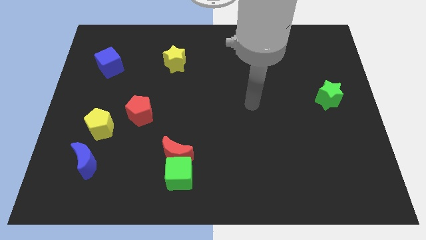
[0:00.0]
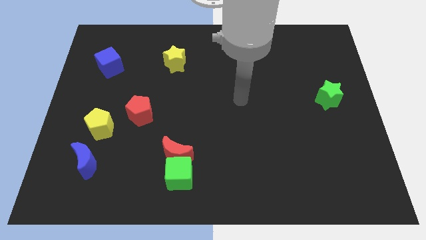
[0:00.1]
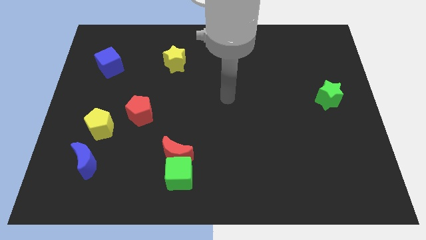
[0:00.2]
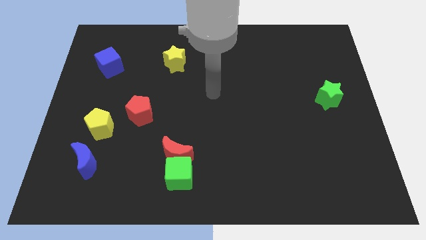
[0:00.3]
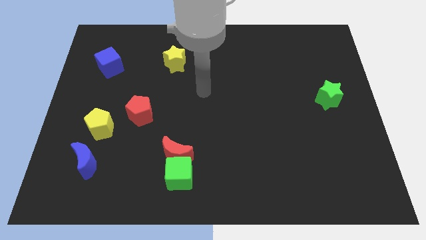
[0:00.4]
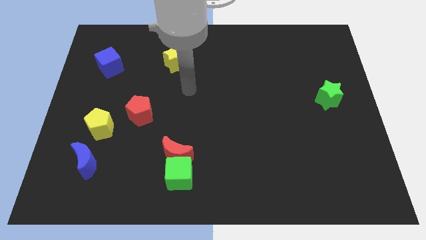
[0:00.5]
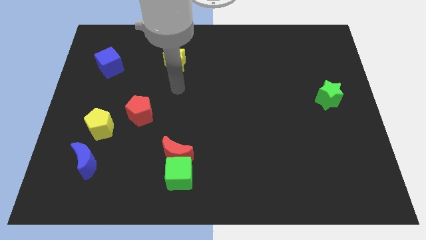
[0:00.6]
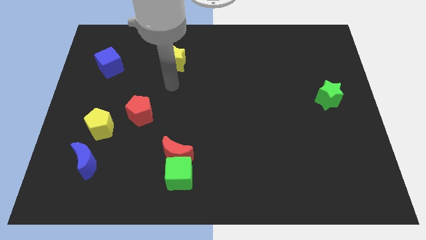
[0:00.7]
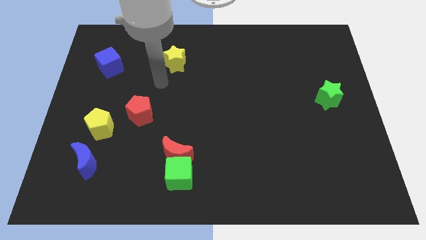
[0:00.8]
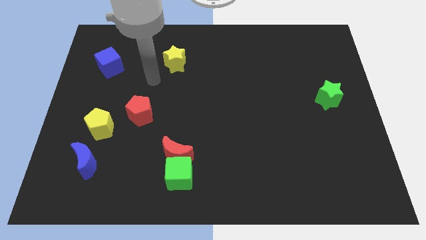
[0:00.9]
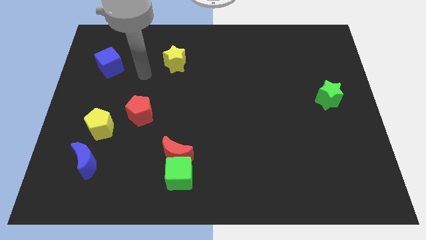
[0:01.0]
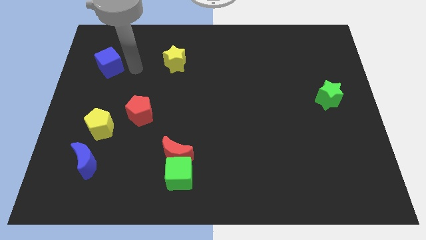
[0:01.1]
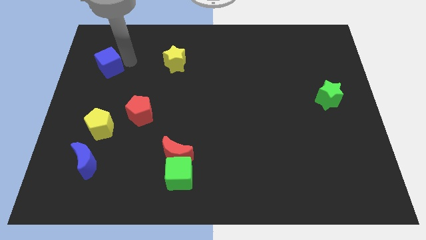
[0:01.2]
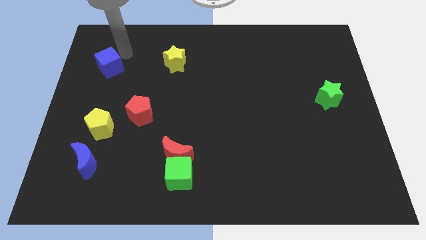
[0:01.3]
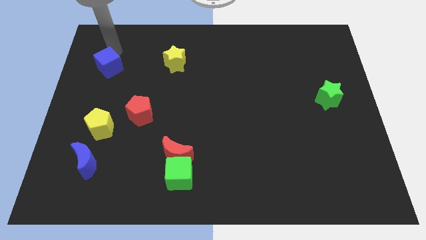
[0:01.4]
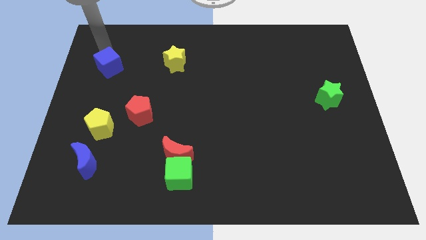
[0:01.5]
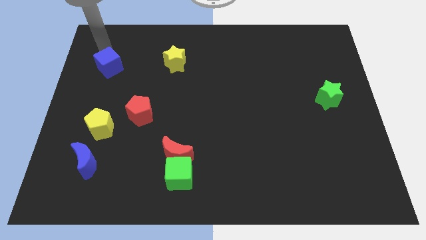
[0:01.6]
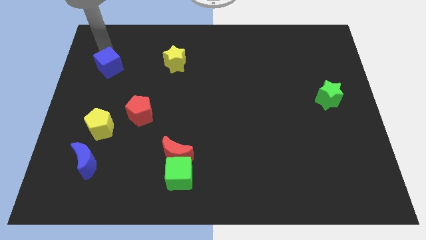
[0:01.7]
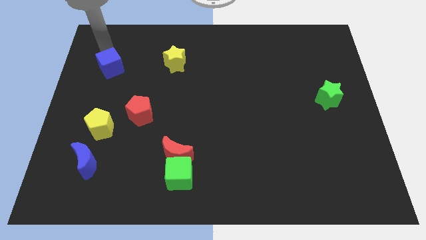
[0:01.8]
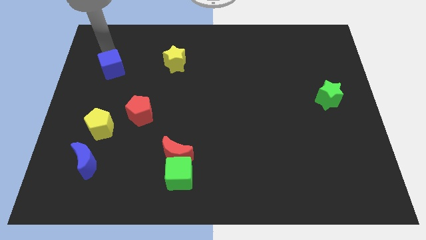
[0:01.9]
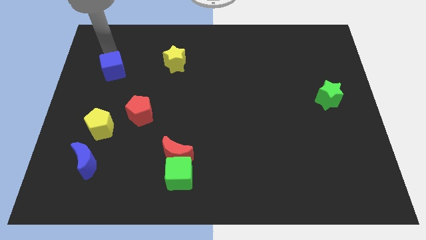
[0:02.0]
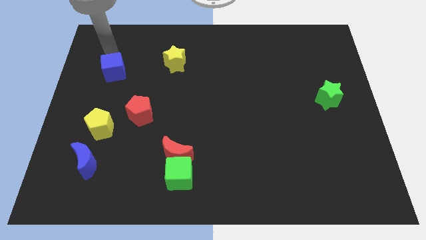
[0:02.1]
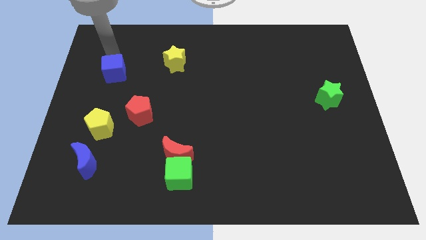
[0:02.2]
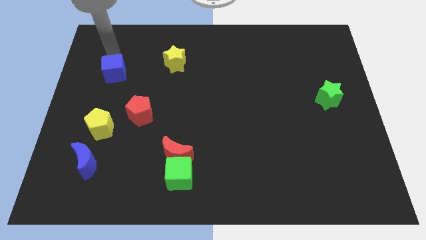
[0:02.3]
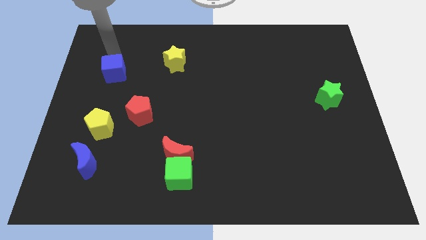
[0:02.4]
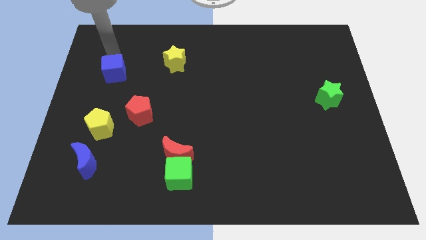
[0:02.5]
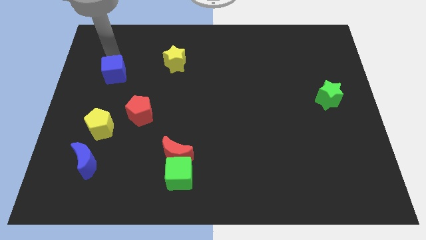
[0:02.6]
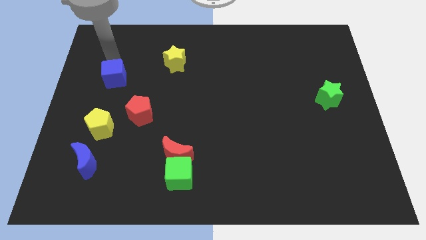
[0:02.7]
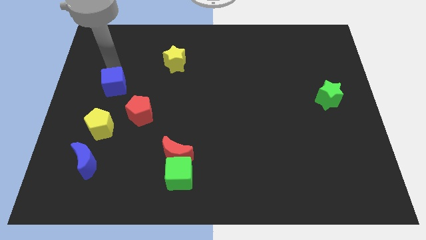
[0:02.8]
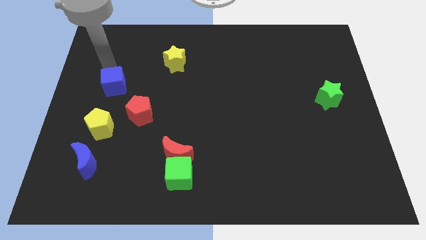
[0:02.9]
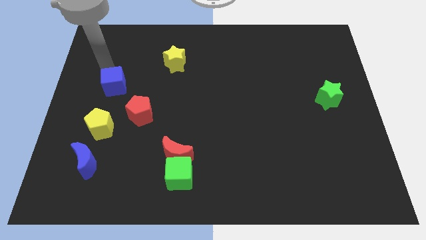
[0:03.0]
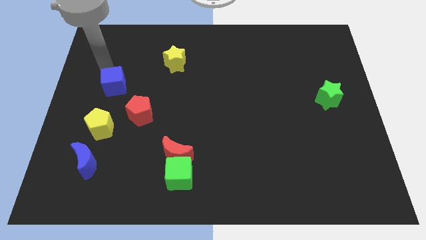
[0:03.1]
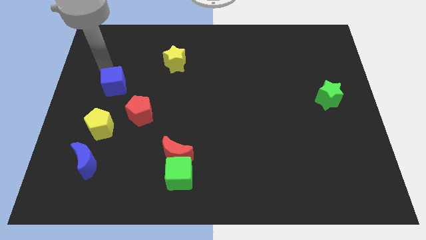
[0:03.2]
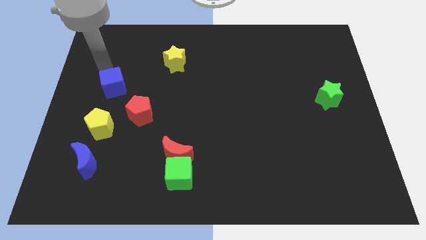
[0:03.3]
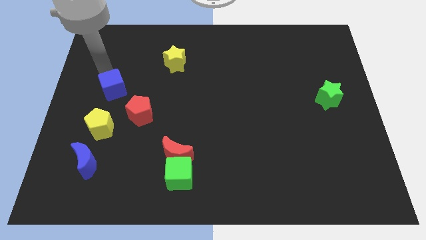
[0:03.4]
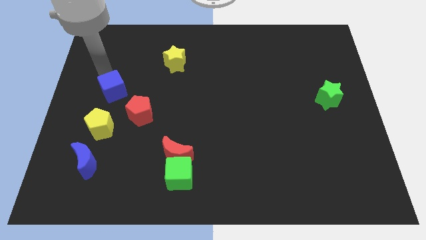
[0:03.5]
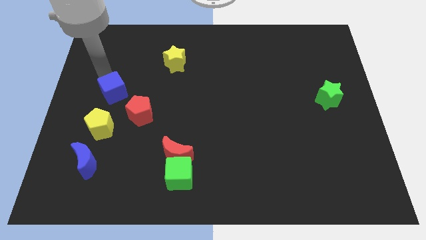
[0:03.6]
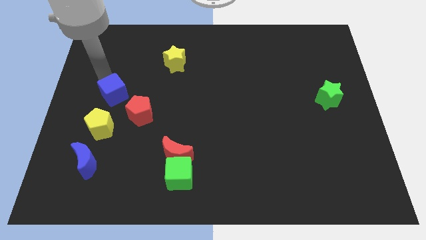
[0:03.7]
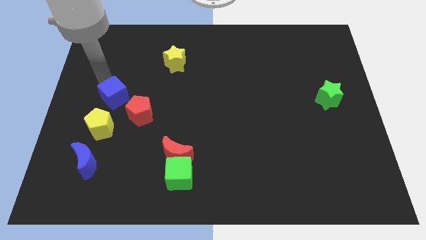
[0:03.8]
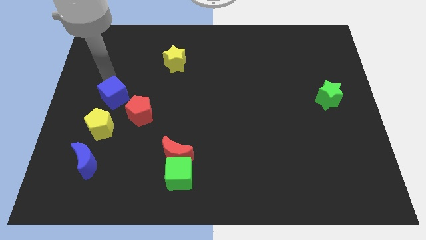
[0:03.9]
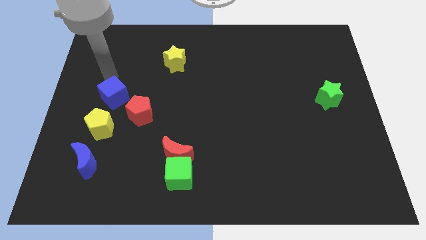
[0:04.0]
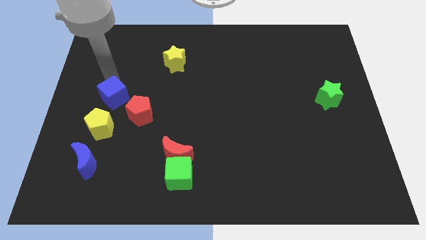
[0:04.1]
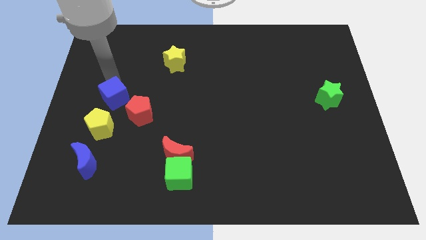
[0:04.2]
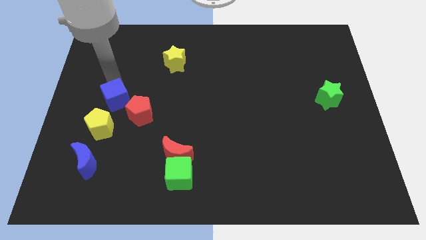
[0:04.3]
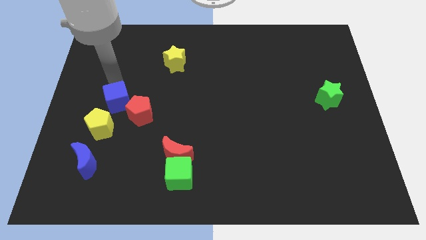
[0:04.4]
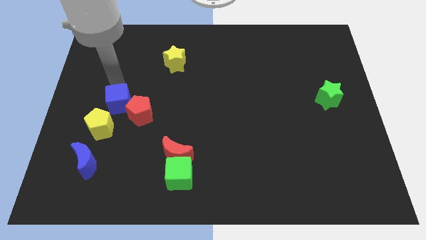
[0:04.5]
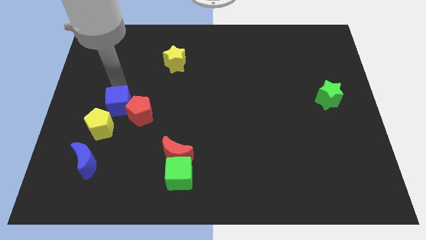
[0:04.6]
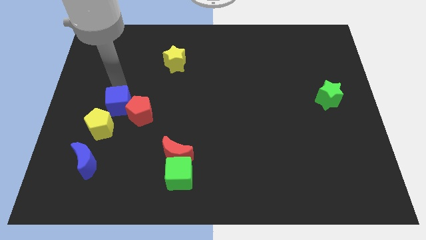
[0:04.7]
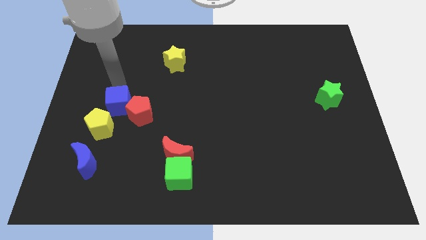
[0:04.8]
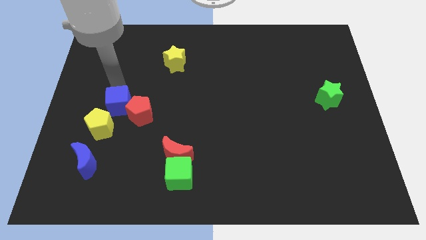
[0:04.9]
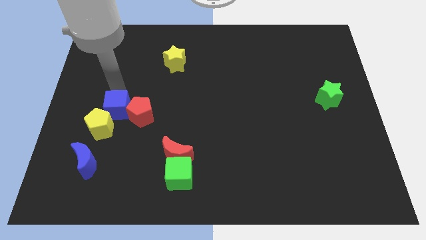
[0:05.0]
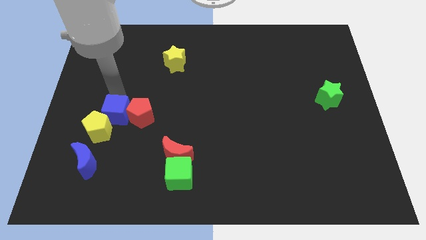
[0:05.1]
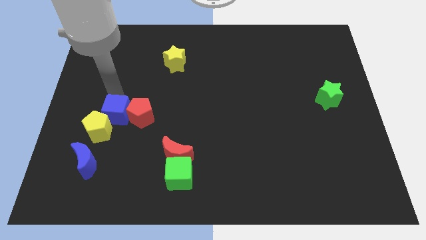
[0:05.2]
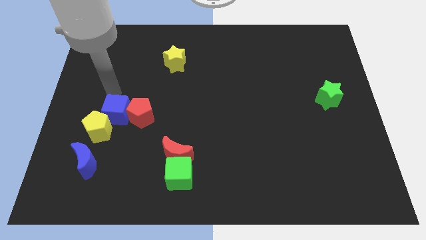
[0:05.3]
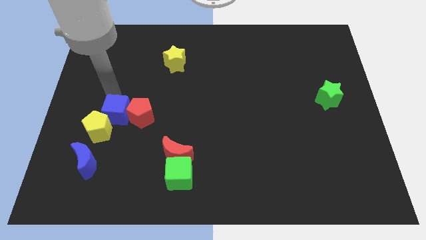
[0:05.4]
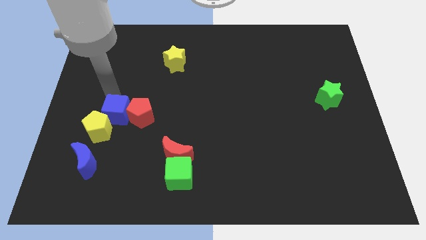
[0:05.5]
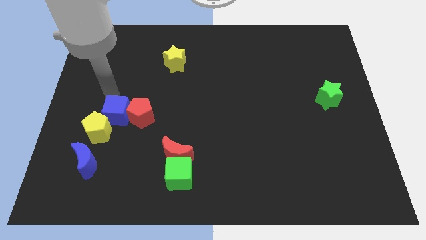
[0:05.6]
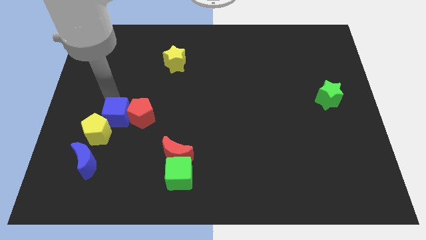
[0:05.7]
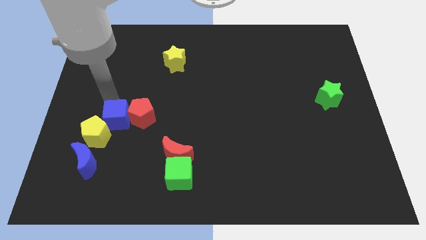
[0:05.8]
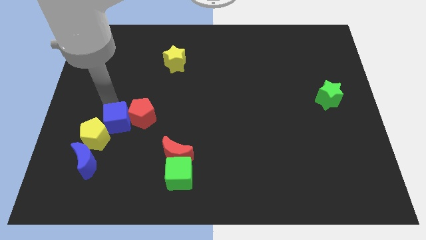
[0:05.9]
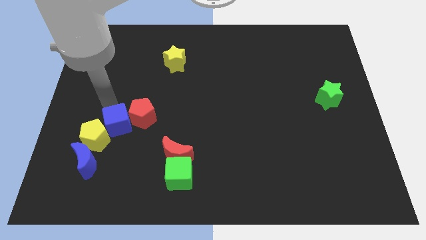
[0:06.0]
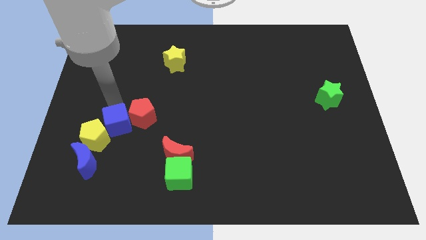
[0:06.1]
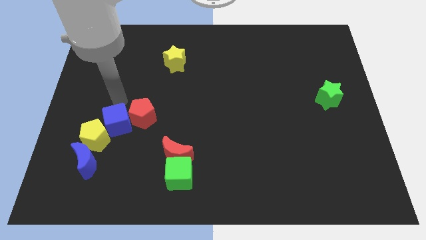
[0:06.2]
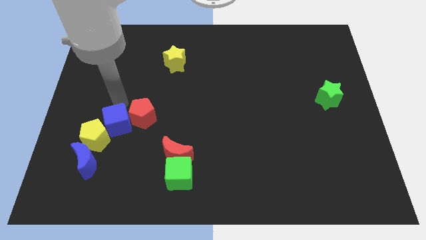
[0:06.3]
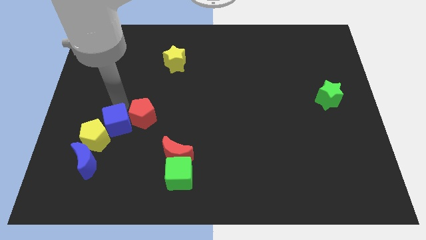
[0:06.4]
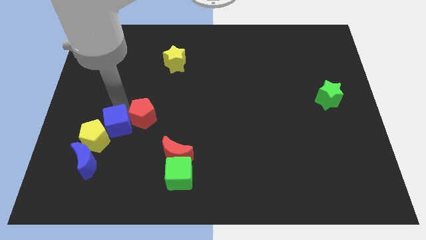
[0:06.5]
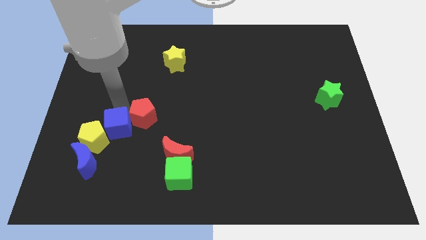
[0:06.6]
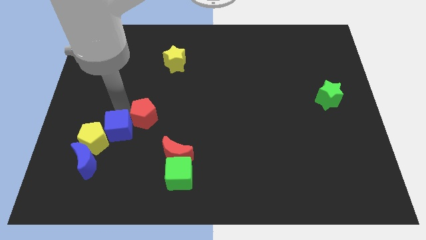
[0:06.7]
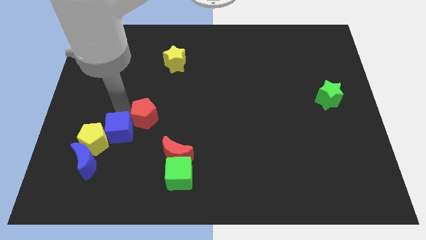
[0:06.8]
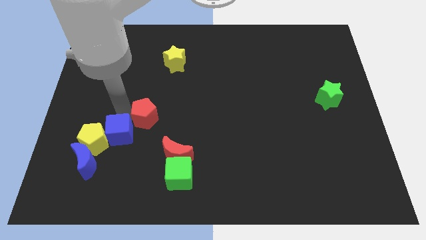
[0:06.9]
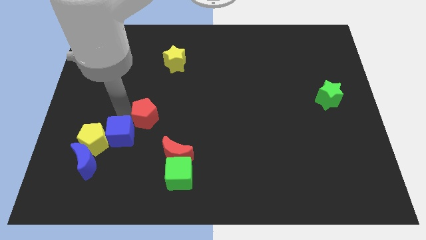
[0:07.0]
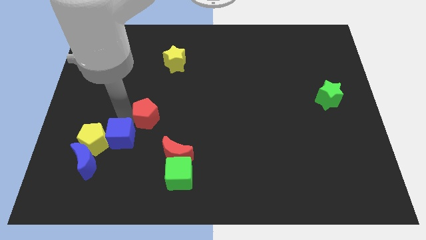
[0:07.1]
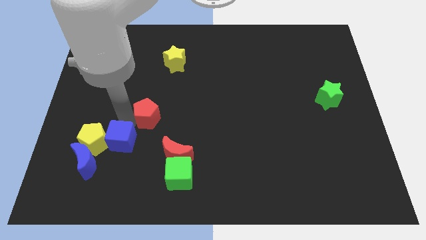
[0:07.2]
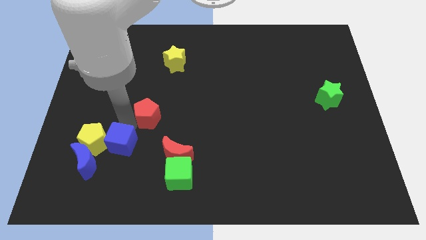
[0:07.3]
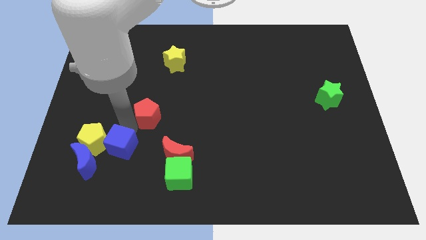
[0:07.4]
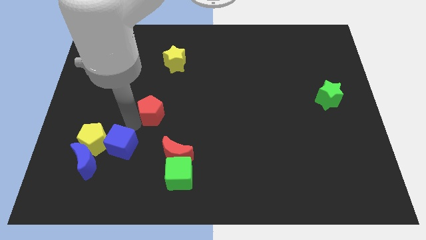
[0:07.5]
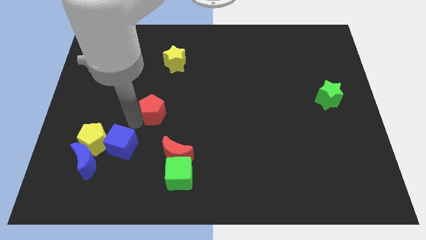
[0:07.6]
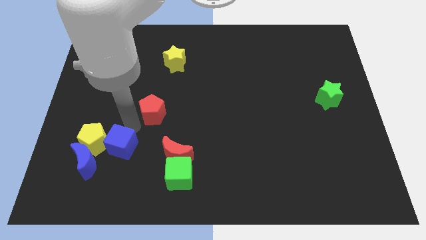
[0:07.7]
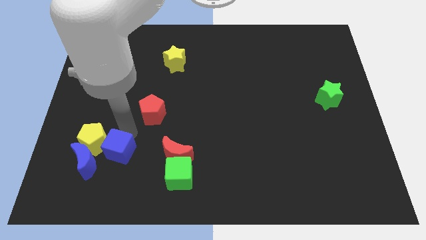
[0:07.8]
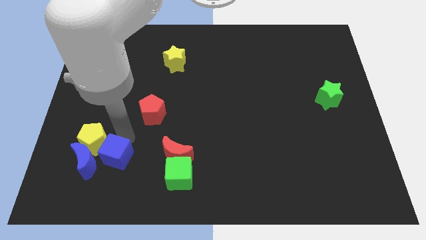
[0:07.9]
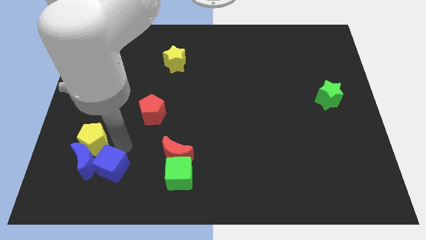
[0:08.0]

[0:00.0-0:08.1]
slide the blue cube to the bottom of the yellow pentagon
